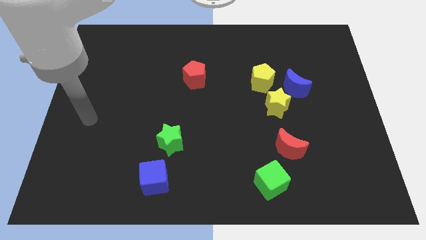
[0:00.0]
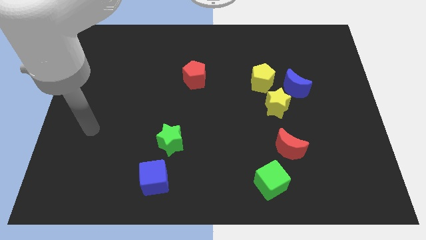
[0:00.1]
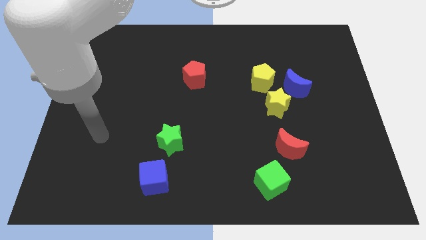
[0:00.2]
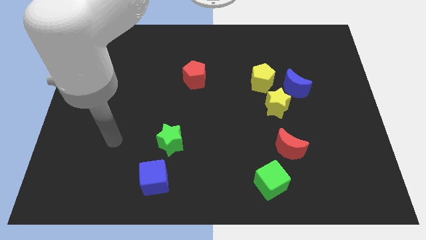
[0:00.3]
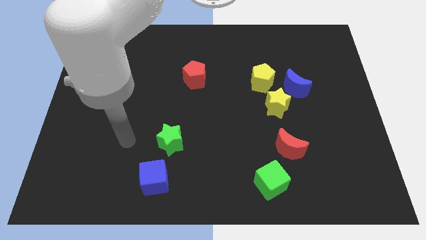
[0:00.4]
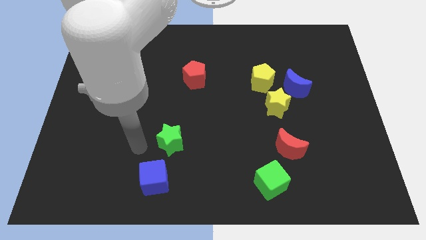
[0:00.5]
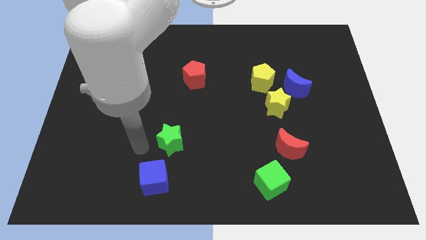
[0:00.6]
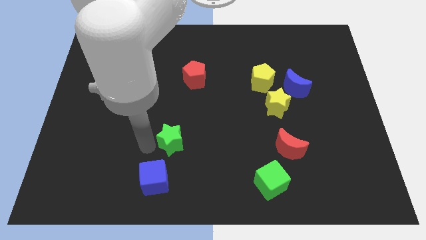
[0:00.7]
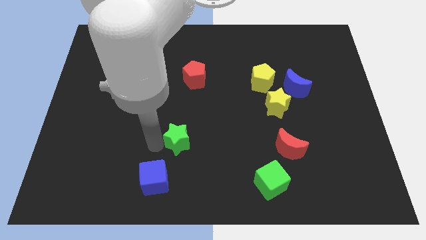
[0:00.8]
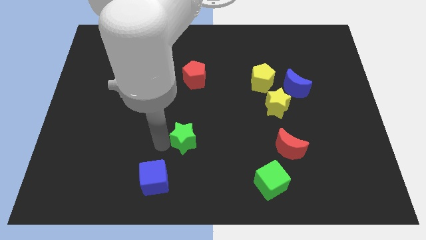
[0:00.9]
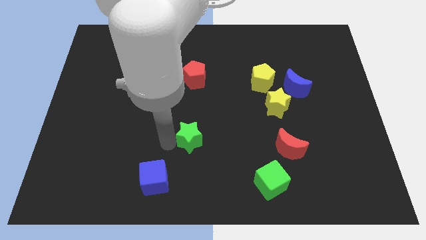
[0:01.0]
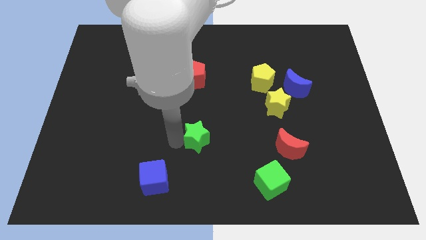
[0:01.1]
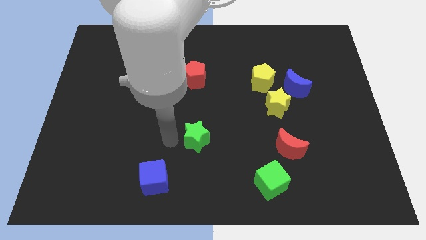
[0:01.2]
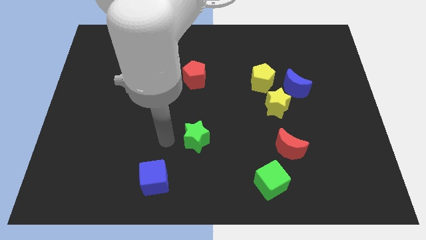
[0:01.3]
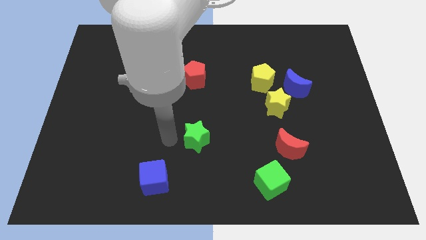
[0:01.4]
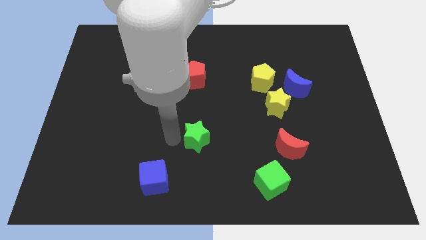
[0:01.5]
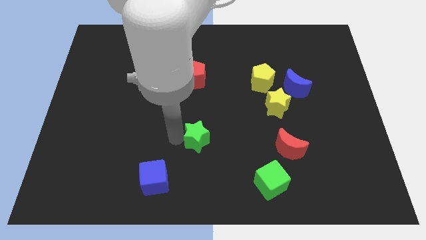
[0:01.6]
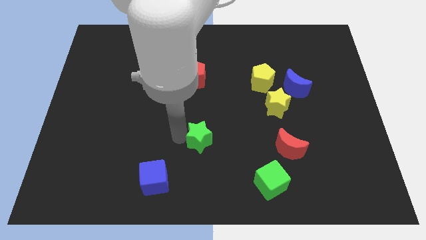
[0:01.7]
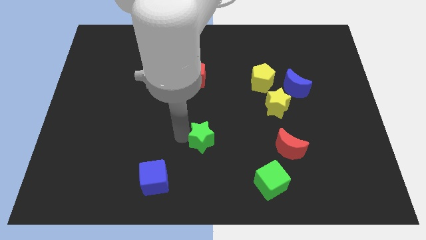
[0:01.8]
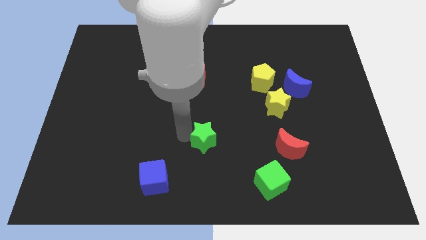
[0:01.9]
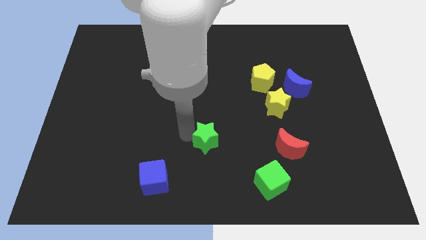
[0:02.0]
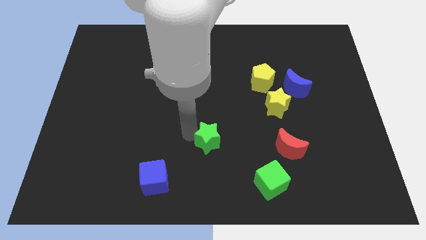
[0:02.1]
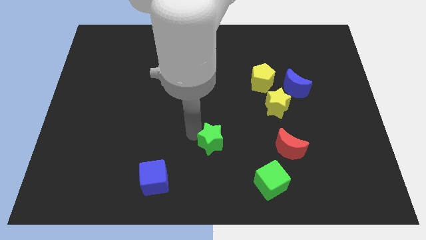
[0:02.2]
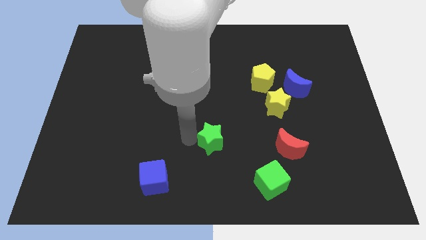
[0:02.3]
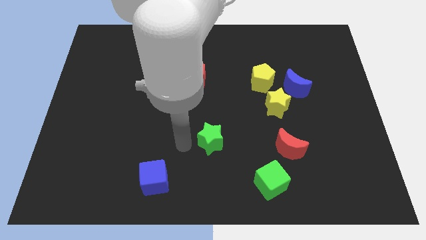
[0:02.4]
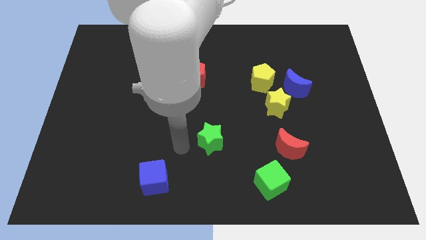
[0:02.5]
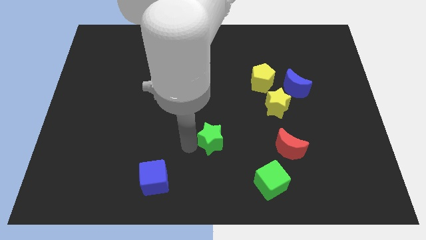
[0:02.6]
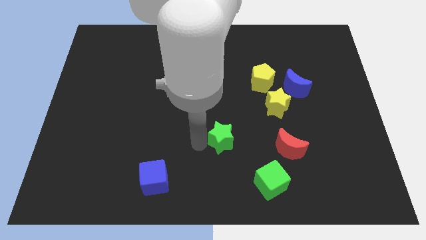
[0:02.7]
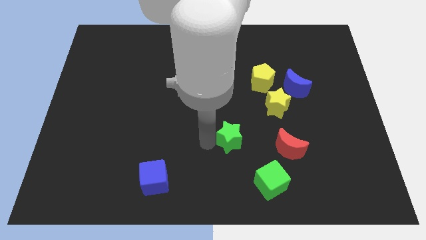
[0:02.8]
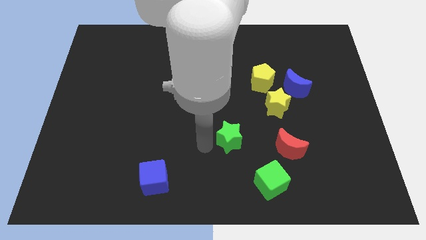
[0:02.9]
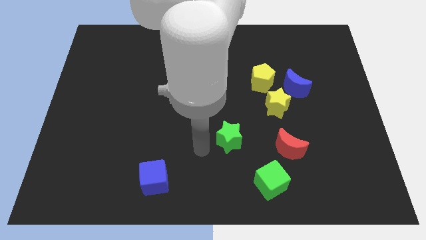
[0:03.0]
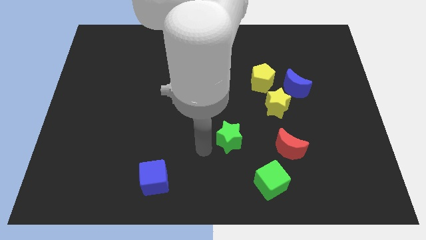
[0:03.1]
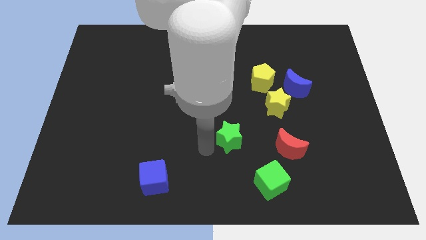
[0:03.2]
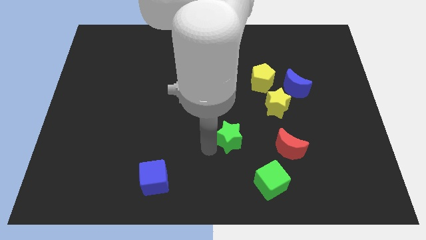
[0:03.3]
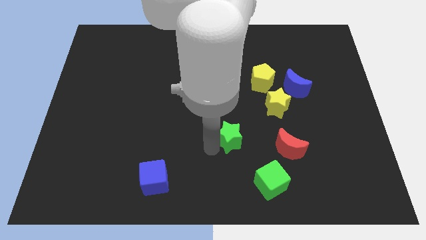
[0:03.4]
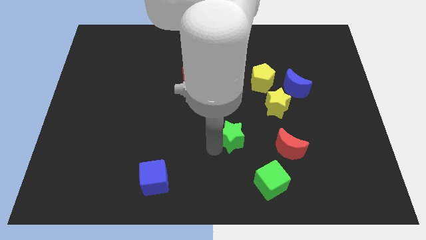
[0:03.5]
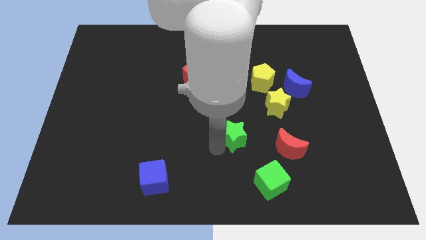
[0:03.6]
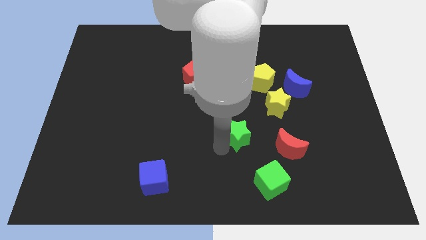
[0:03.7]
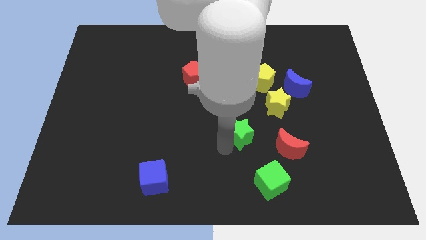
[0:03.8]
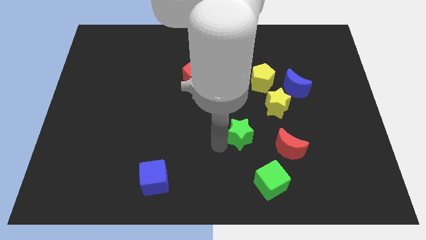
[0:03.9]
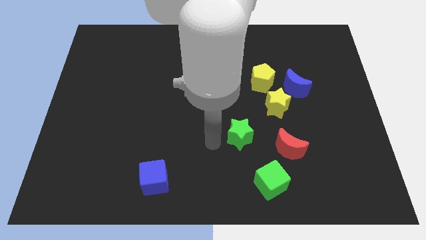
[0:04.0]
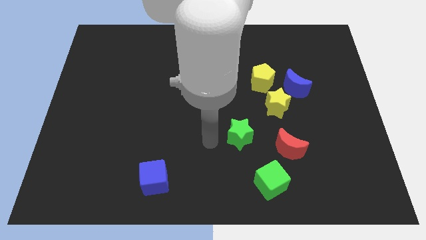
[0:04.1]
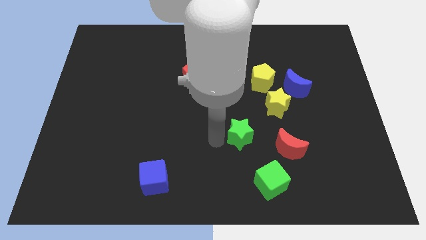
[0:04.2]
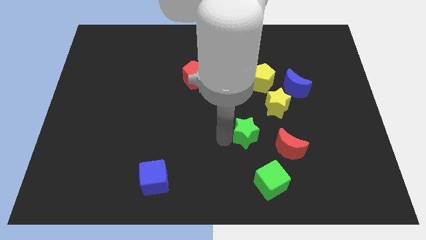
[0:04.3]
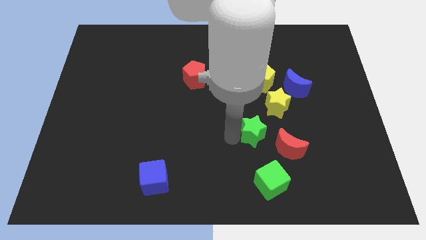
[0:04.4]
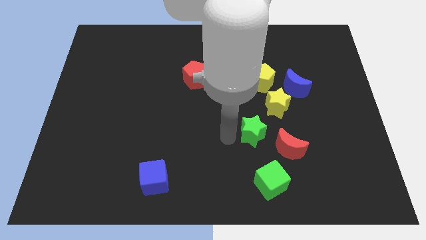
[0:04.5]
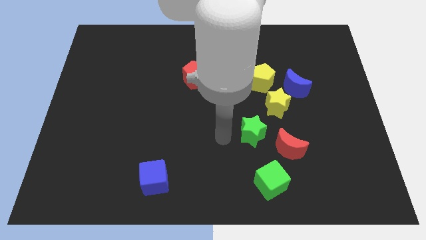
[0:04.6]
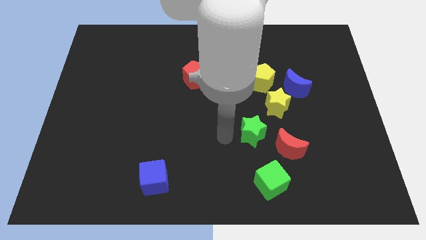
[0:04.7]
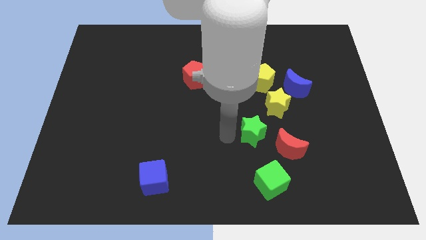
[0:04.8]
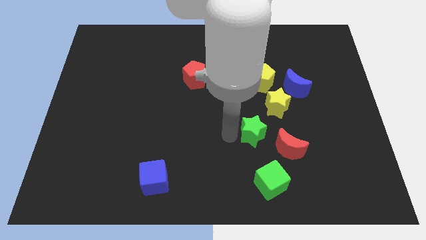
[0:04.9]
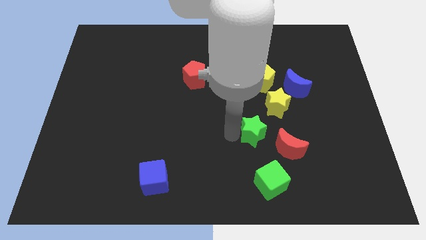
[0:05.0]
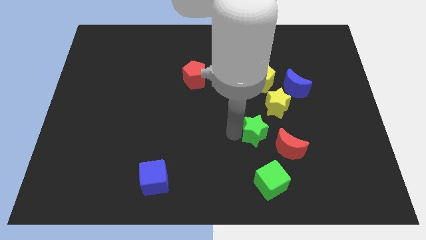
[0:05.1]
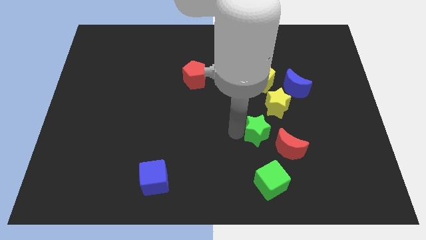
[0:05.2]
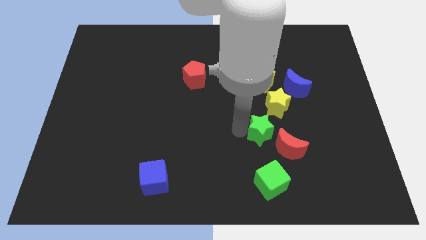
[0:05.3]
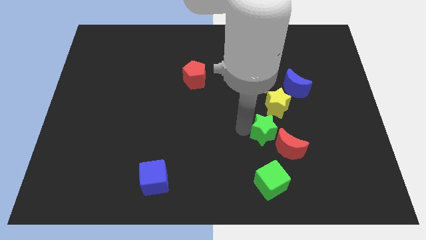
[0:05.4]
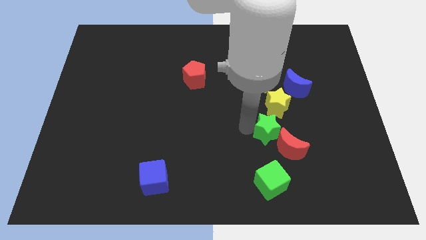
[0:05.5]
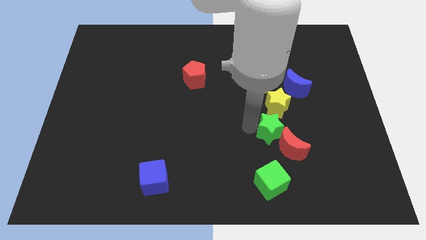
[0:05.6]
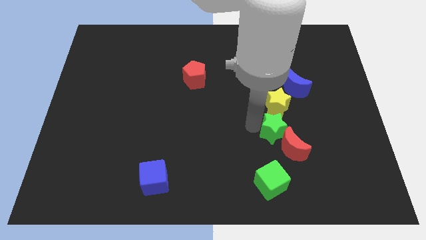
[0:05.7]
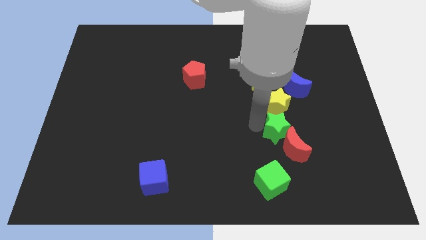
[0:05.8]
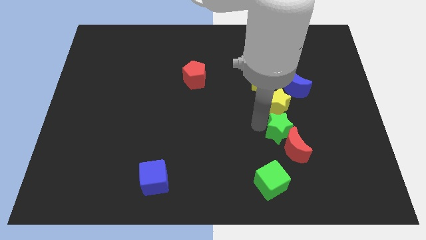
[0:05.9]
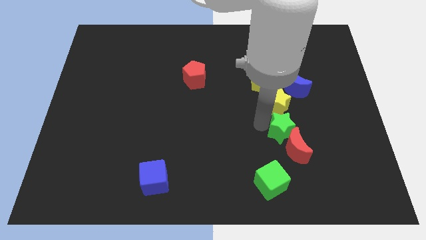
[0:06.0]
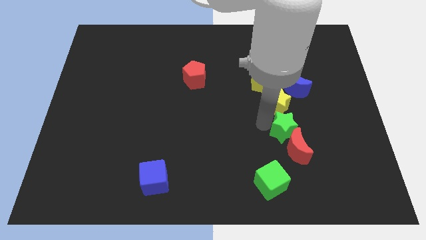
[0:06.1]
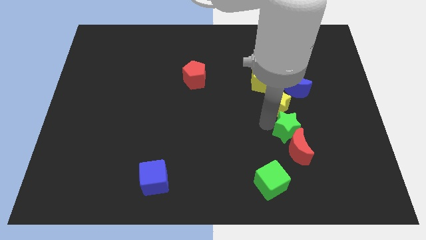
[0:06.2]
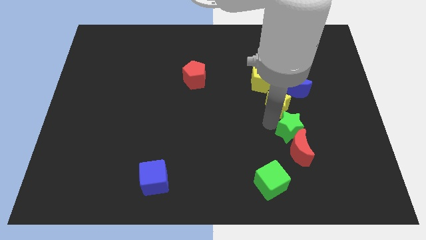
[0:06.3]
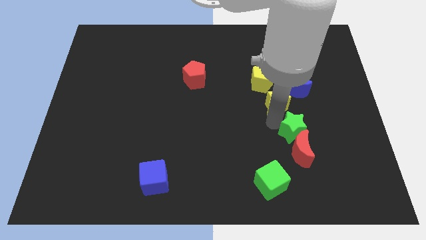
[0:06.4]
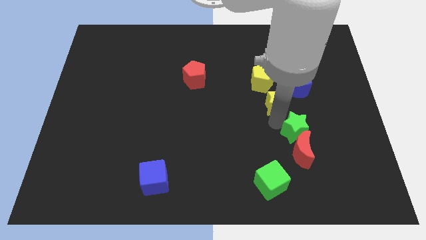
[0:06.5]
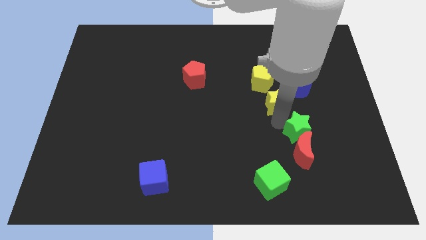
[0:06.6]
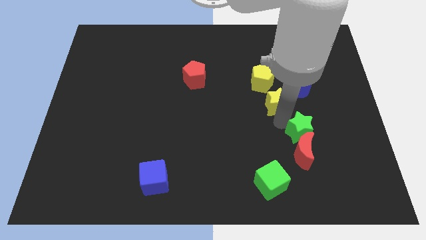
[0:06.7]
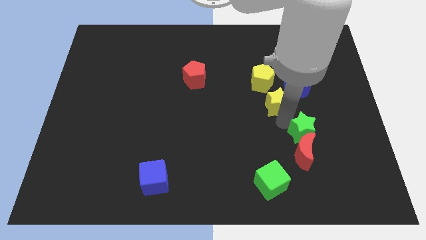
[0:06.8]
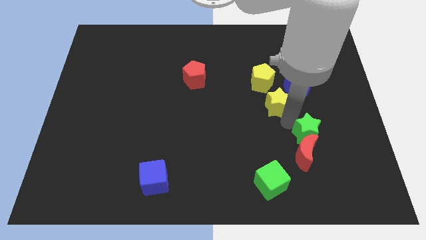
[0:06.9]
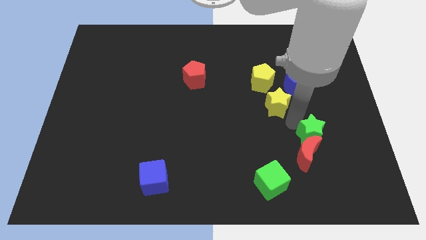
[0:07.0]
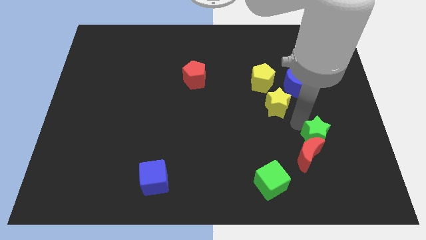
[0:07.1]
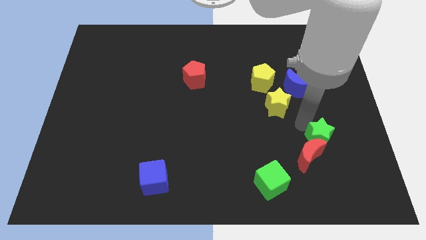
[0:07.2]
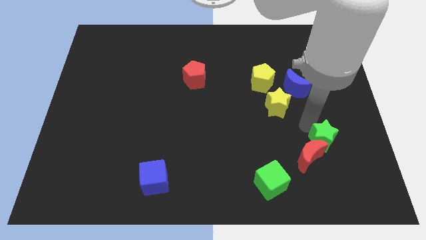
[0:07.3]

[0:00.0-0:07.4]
push the green star to the right side of the red moon

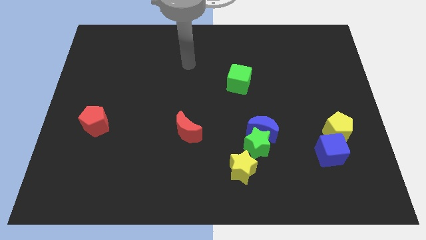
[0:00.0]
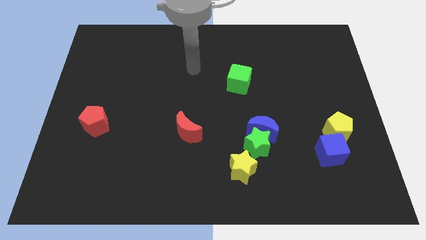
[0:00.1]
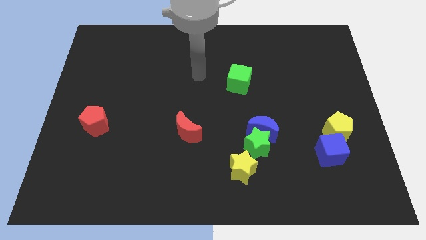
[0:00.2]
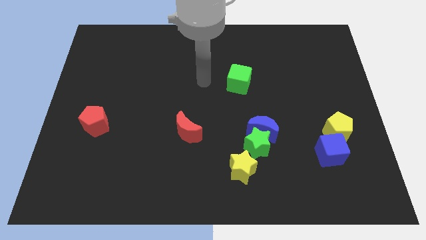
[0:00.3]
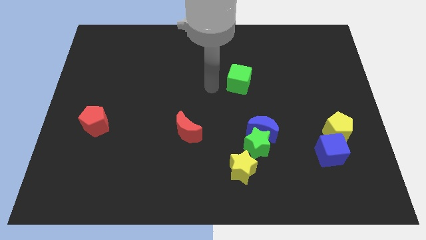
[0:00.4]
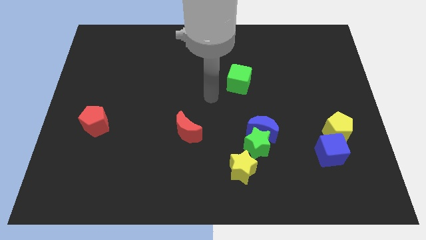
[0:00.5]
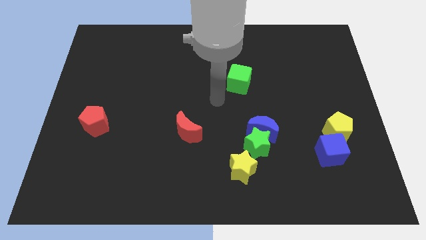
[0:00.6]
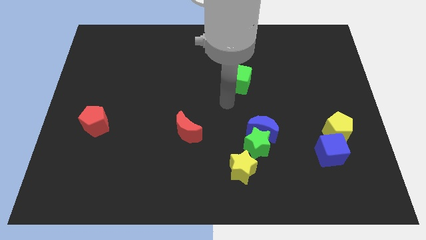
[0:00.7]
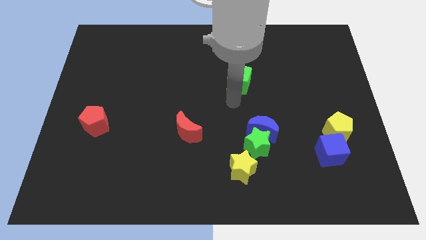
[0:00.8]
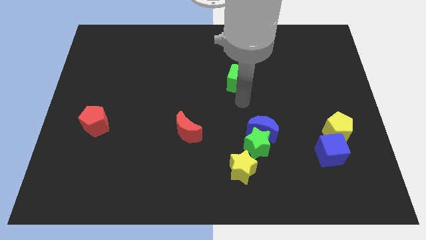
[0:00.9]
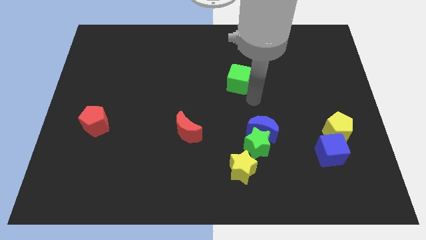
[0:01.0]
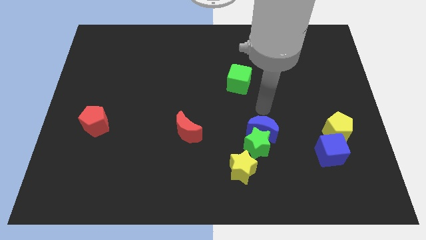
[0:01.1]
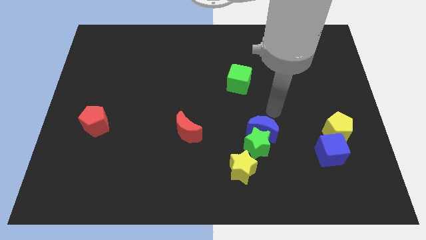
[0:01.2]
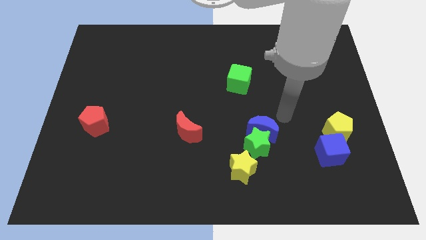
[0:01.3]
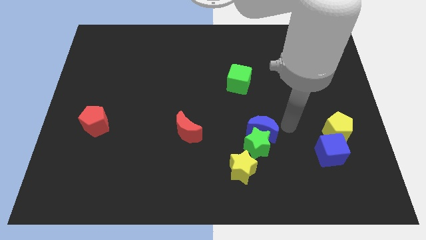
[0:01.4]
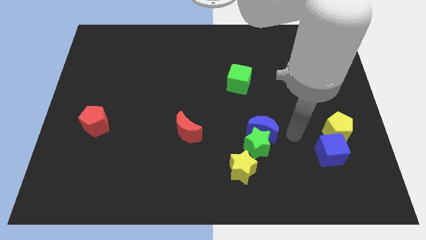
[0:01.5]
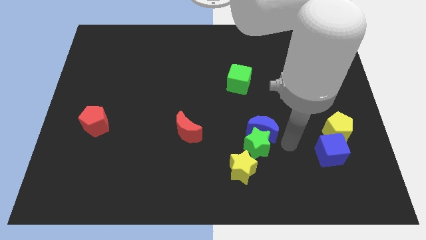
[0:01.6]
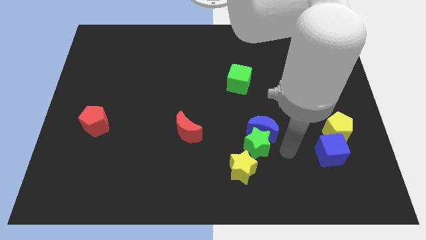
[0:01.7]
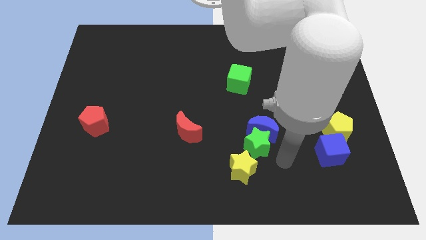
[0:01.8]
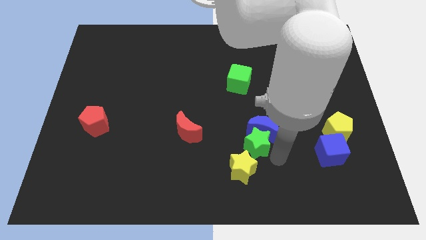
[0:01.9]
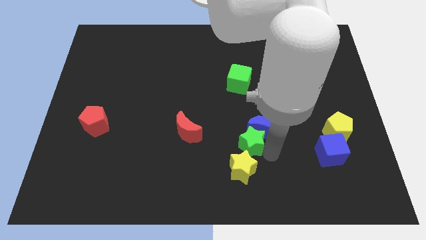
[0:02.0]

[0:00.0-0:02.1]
push the green star just right of the red moon
